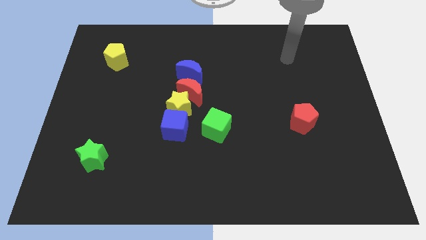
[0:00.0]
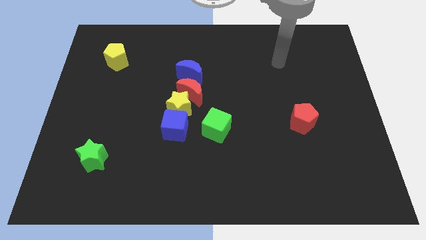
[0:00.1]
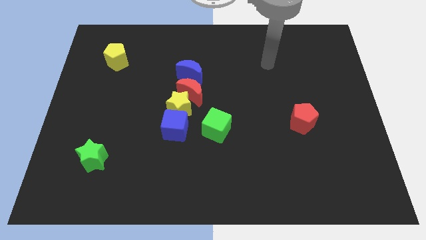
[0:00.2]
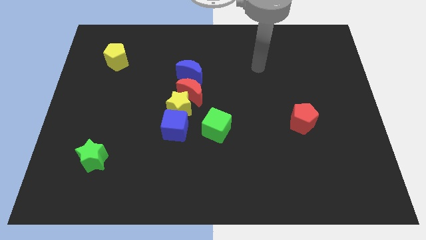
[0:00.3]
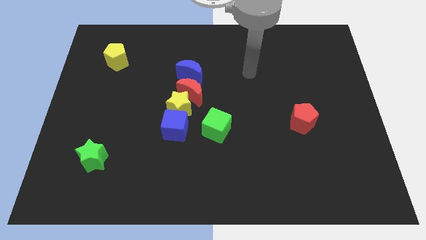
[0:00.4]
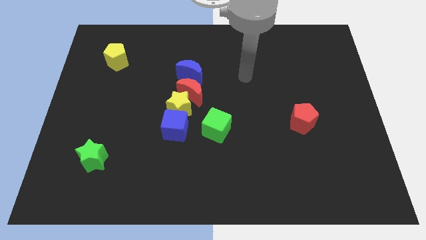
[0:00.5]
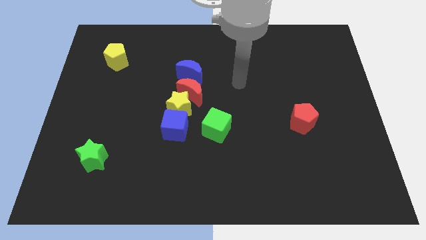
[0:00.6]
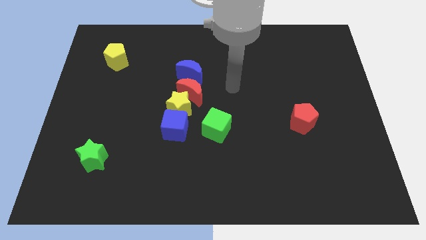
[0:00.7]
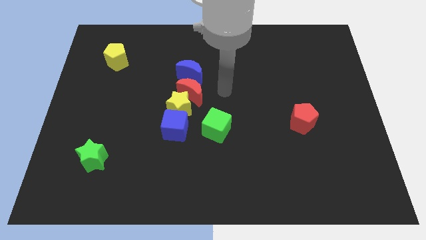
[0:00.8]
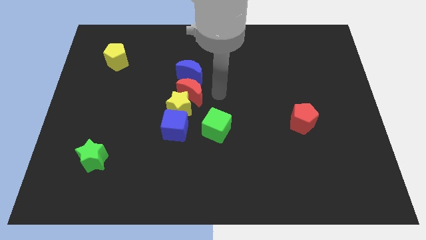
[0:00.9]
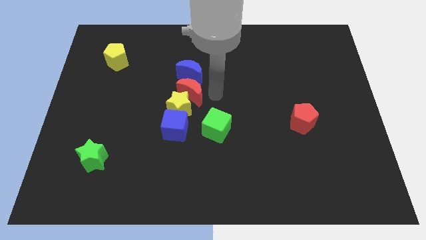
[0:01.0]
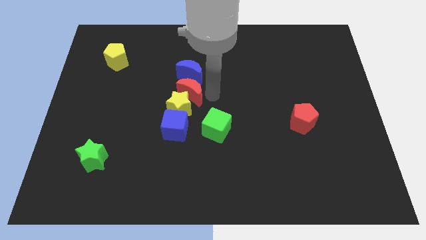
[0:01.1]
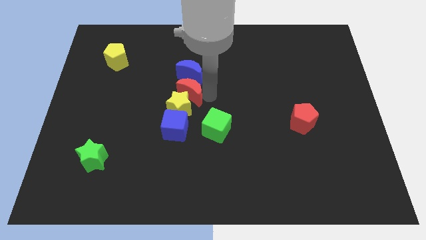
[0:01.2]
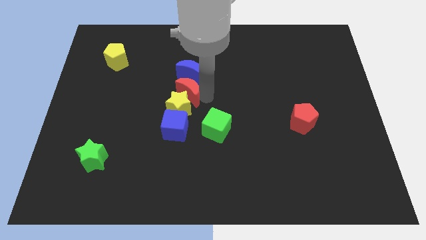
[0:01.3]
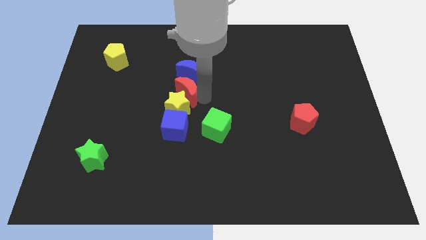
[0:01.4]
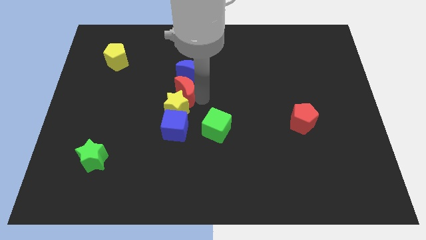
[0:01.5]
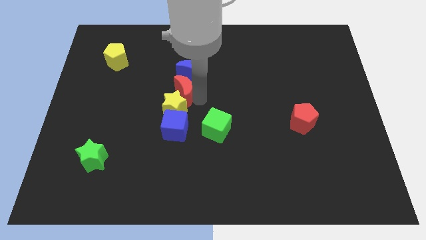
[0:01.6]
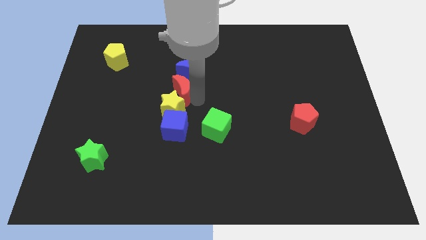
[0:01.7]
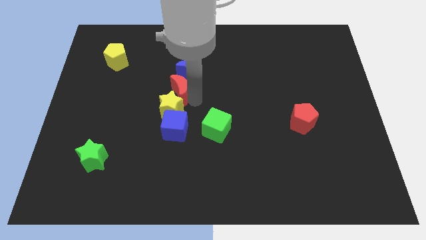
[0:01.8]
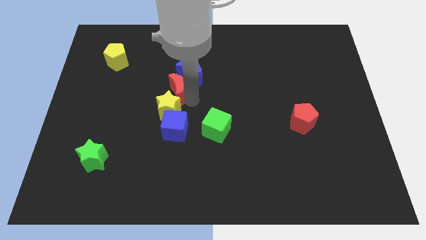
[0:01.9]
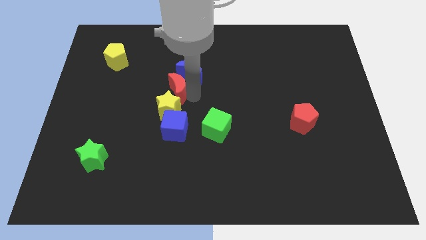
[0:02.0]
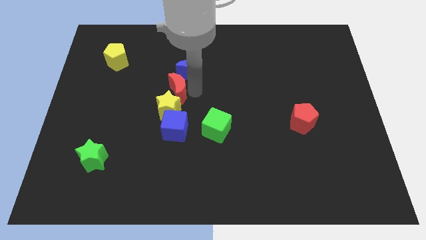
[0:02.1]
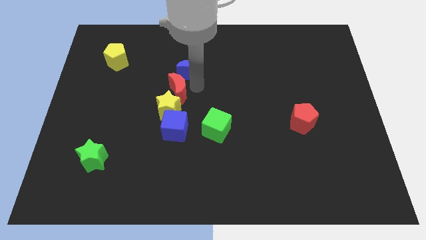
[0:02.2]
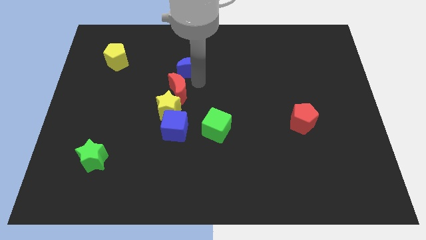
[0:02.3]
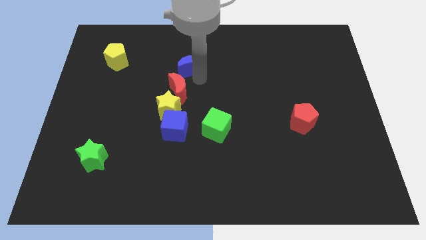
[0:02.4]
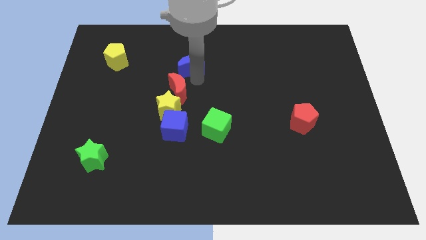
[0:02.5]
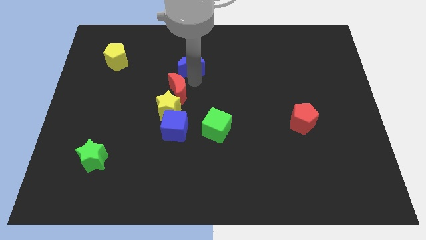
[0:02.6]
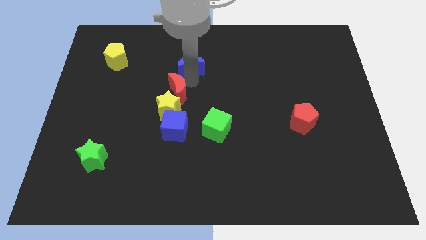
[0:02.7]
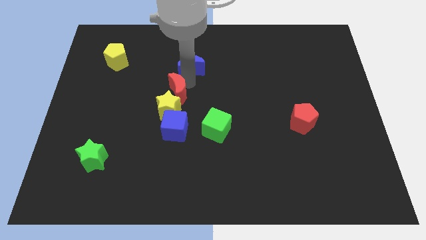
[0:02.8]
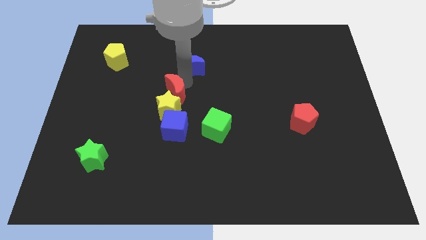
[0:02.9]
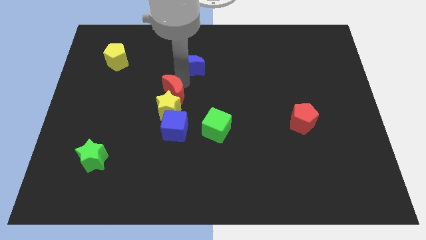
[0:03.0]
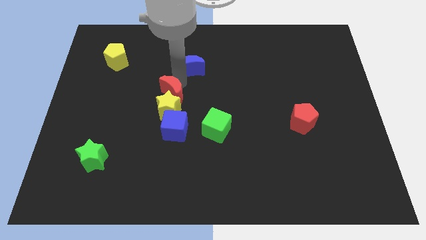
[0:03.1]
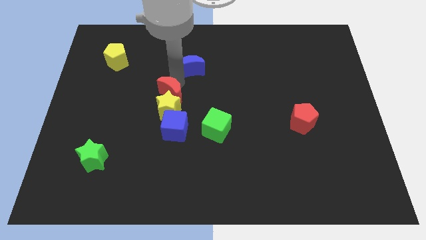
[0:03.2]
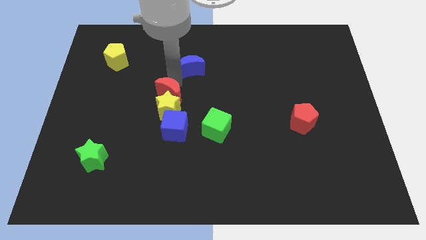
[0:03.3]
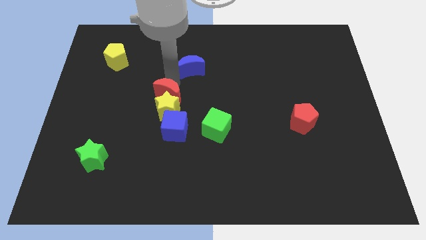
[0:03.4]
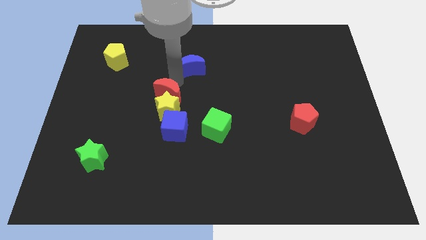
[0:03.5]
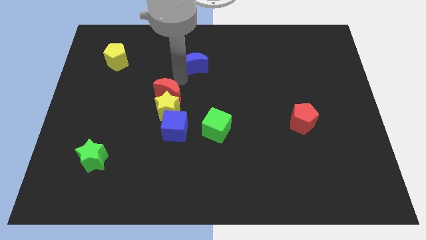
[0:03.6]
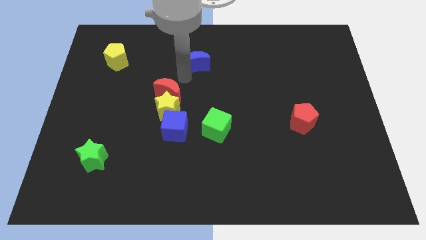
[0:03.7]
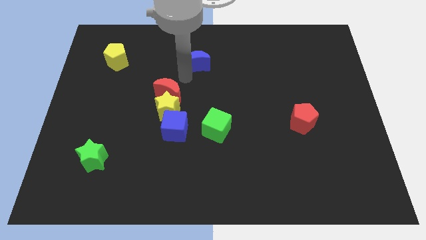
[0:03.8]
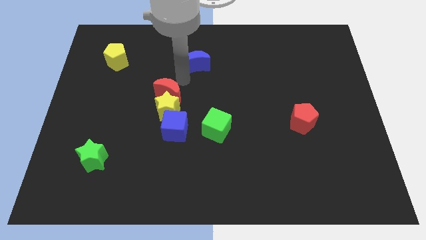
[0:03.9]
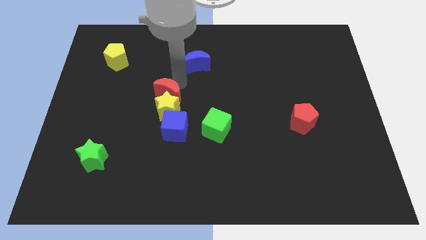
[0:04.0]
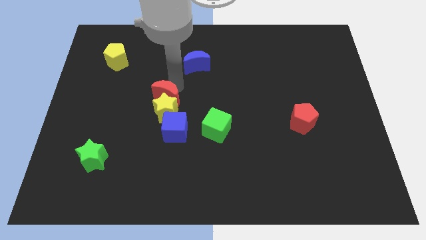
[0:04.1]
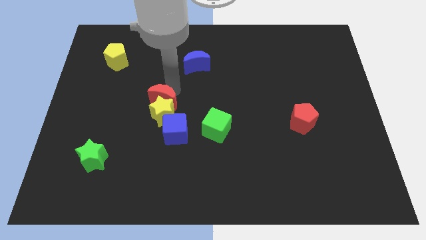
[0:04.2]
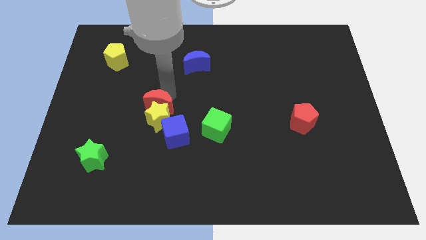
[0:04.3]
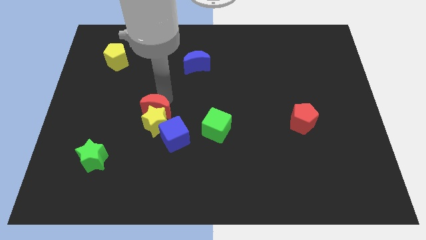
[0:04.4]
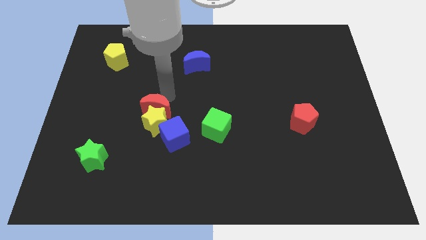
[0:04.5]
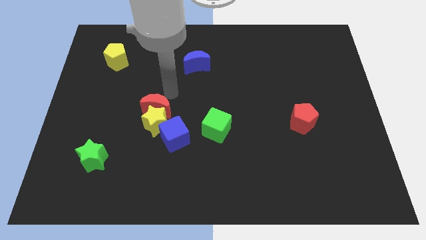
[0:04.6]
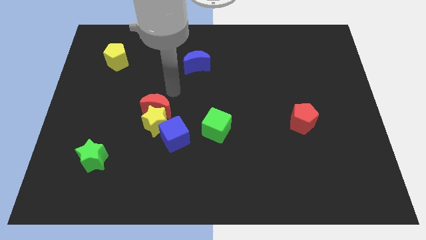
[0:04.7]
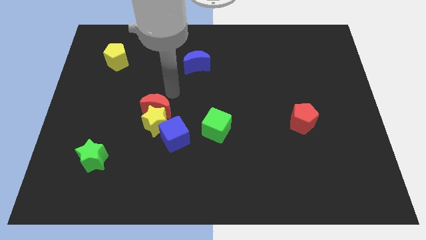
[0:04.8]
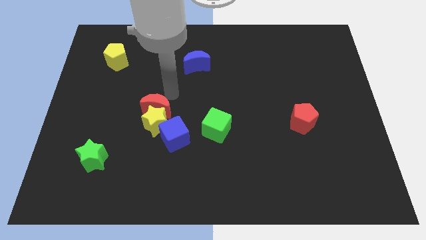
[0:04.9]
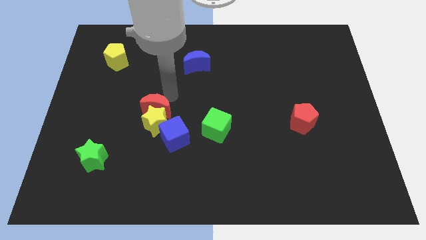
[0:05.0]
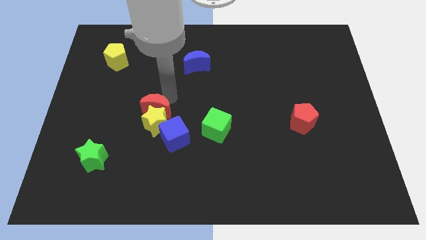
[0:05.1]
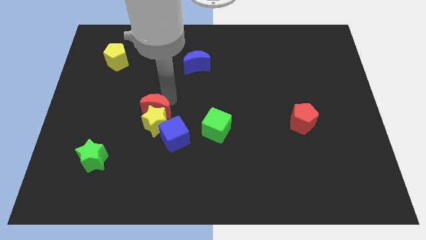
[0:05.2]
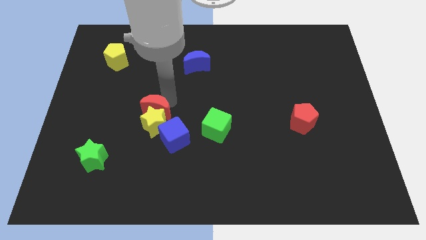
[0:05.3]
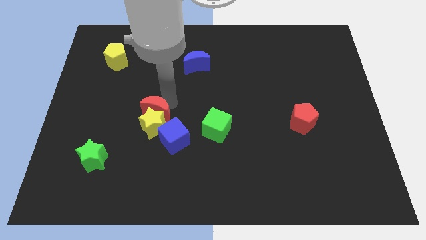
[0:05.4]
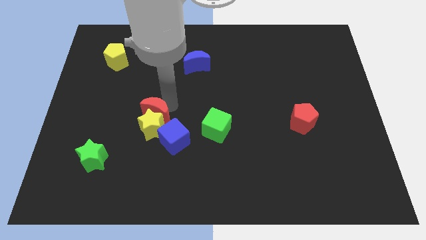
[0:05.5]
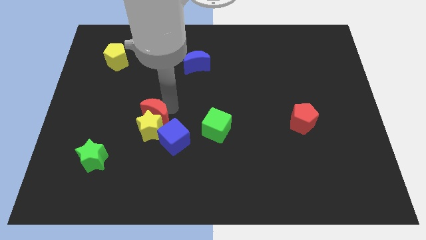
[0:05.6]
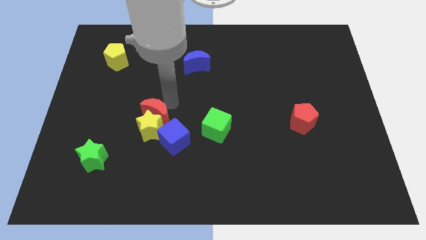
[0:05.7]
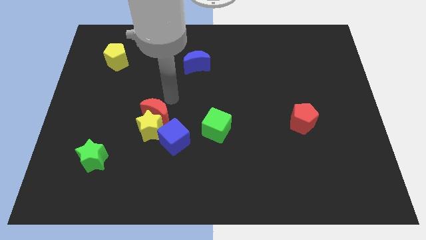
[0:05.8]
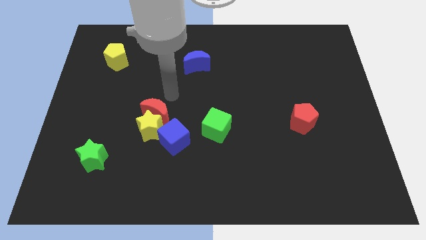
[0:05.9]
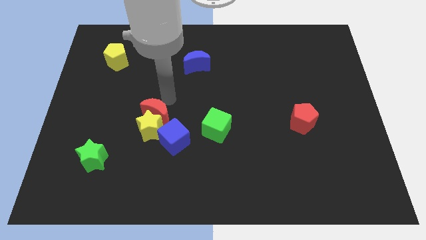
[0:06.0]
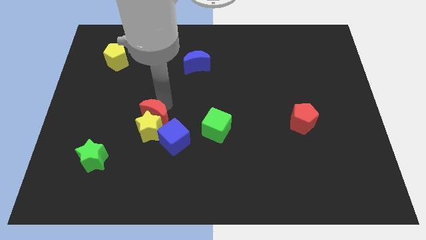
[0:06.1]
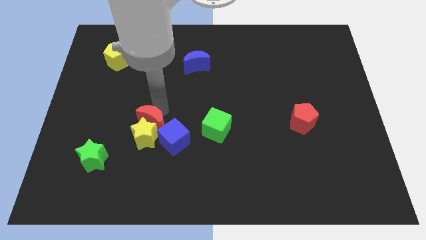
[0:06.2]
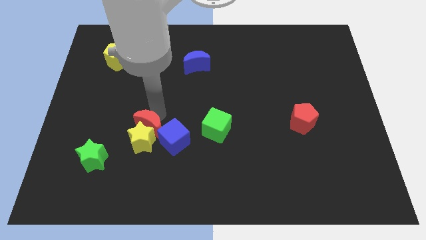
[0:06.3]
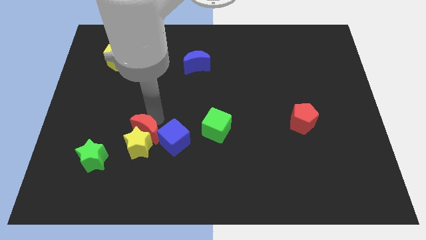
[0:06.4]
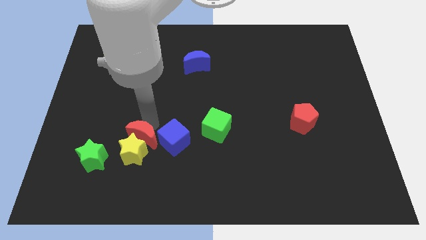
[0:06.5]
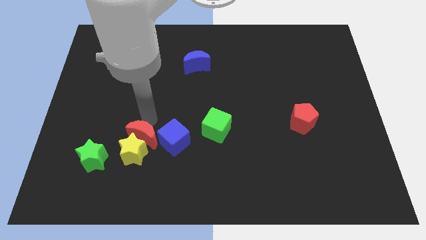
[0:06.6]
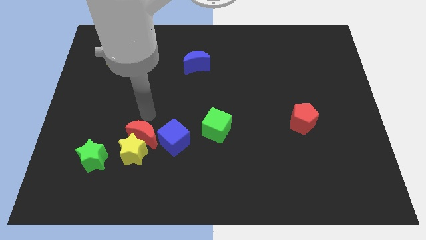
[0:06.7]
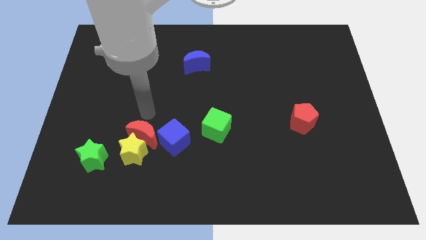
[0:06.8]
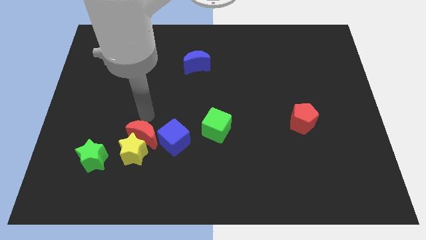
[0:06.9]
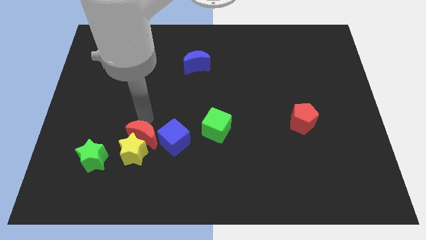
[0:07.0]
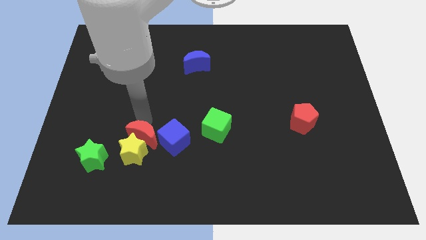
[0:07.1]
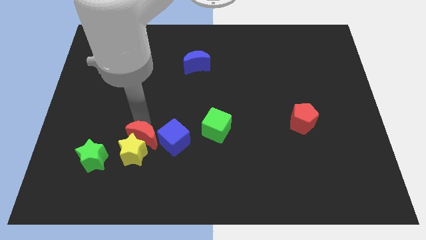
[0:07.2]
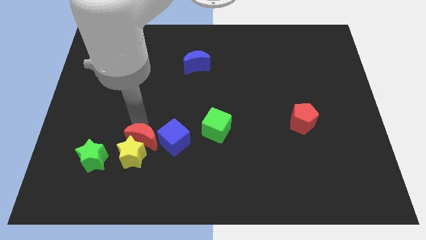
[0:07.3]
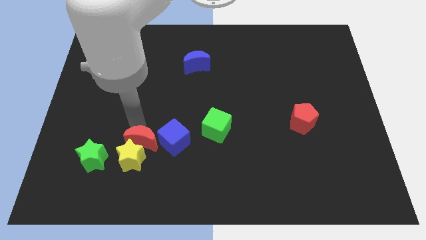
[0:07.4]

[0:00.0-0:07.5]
put the red moon right of the green star
